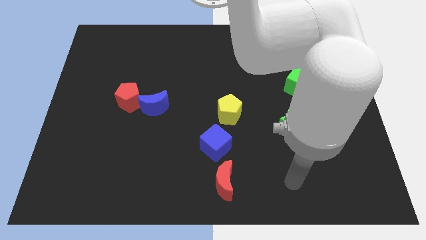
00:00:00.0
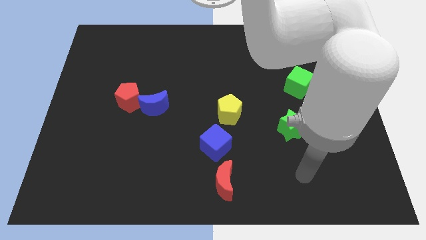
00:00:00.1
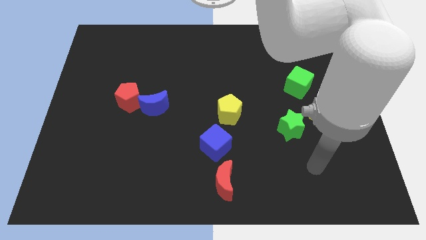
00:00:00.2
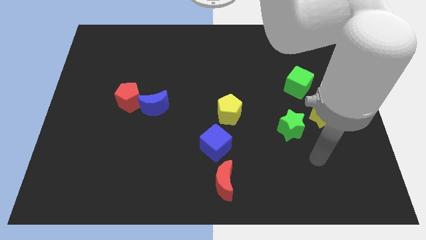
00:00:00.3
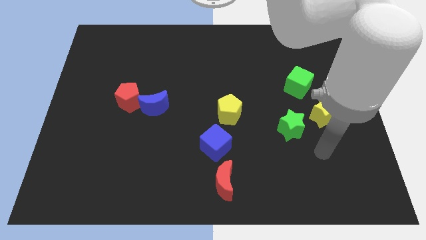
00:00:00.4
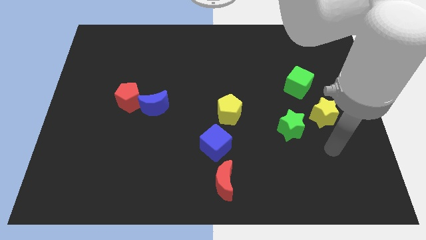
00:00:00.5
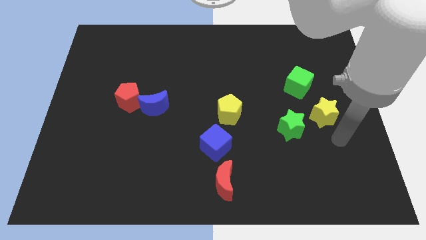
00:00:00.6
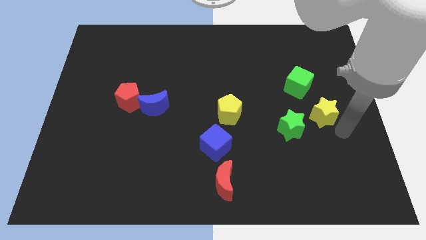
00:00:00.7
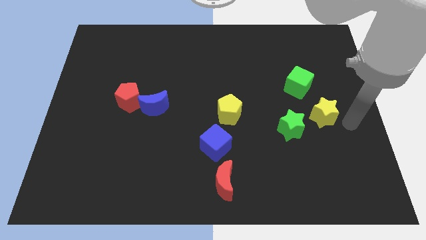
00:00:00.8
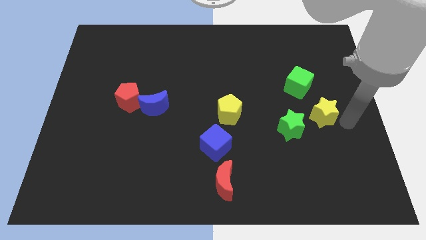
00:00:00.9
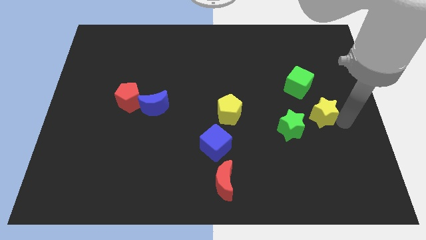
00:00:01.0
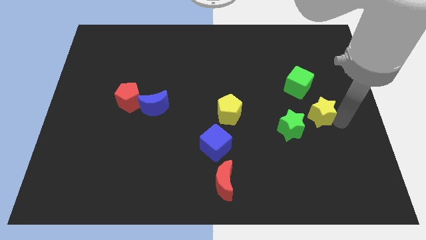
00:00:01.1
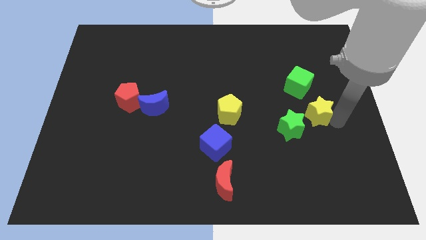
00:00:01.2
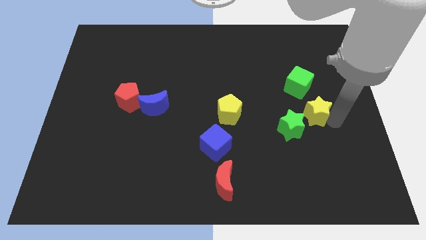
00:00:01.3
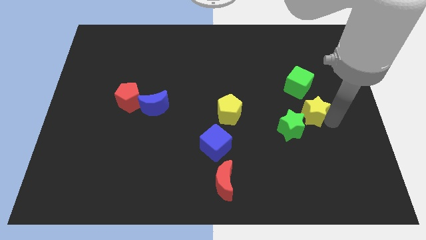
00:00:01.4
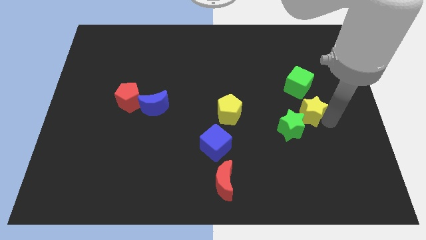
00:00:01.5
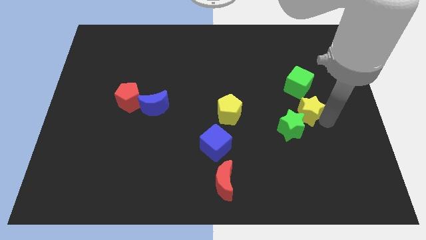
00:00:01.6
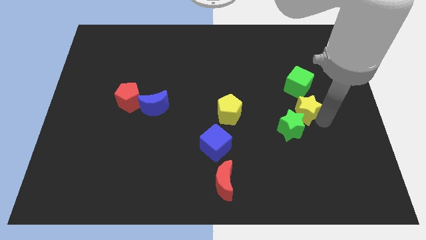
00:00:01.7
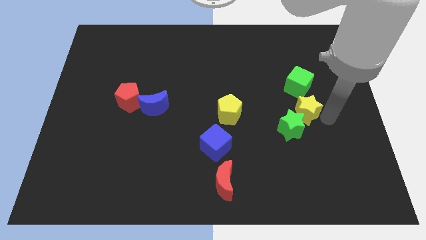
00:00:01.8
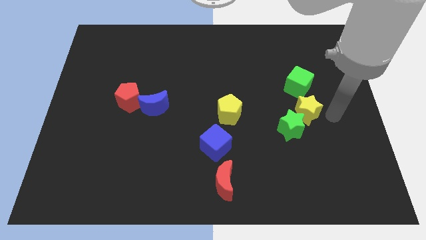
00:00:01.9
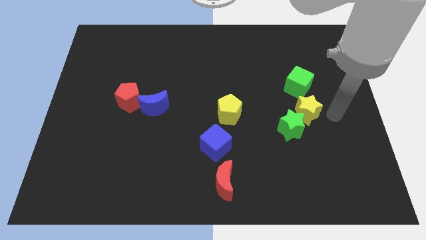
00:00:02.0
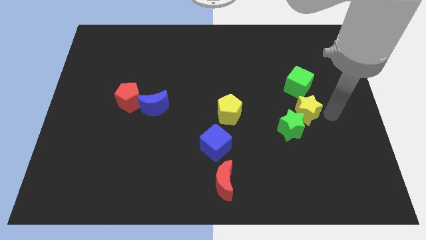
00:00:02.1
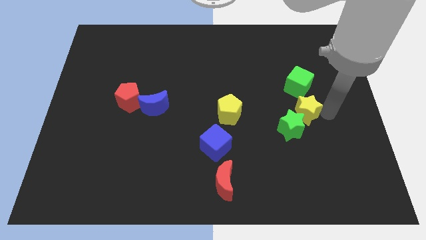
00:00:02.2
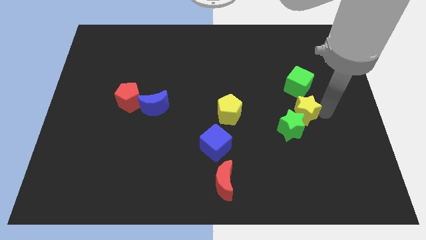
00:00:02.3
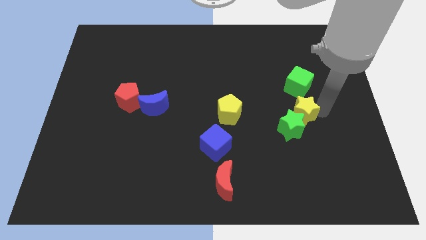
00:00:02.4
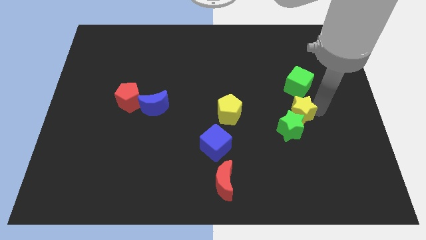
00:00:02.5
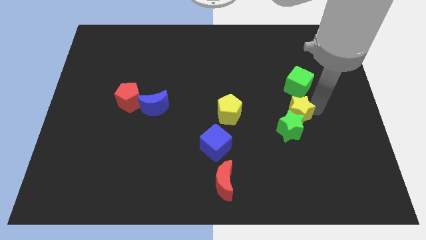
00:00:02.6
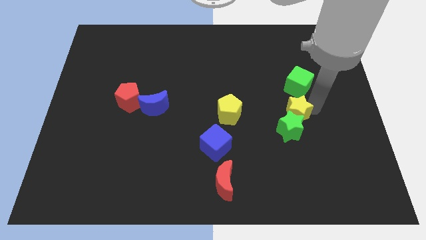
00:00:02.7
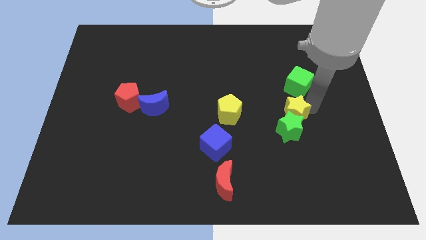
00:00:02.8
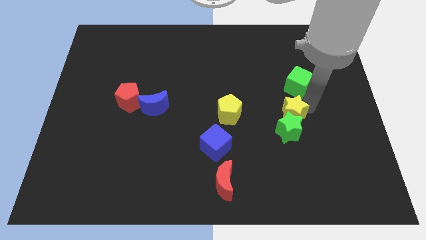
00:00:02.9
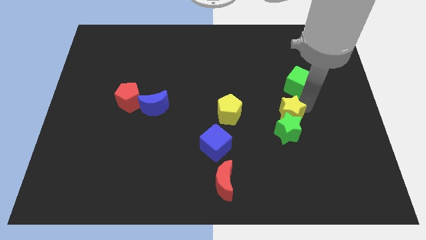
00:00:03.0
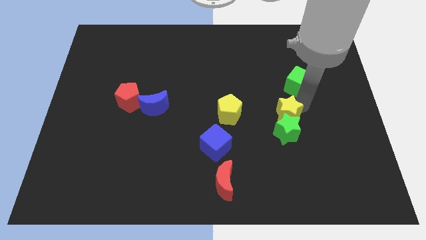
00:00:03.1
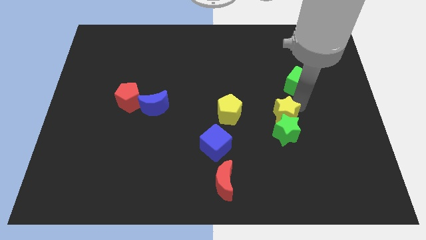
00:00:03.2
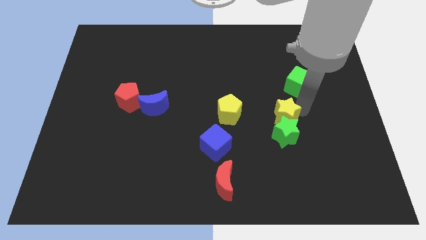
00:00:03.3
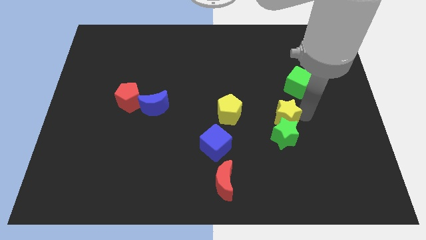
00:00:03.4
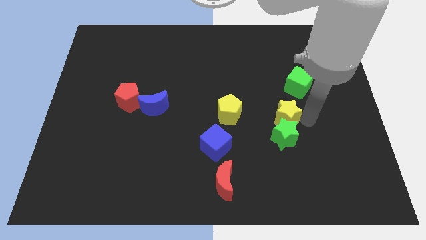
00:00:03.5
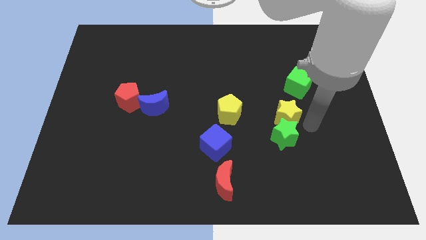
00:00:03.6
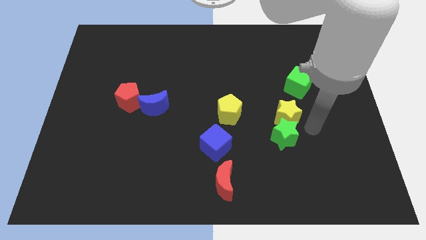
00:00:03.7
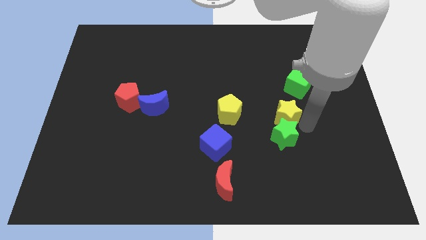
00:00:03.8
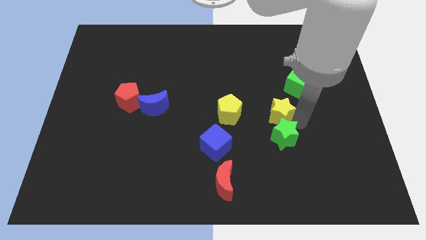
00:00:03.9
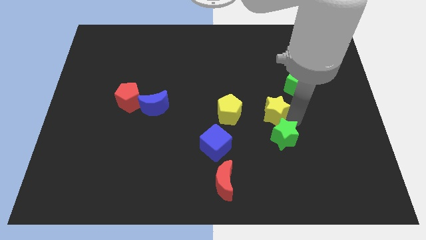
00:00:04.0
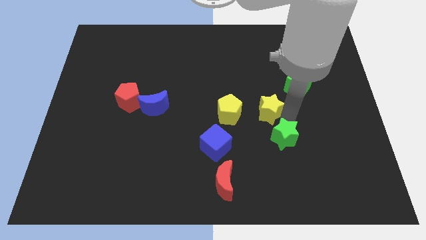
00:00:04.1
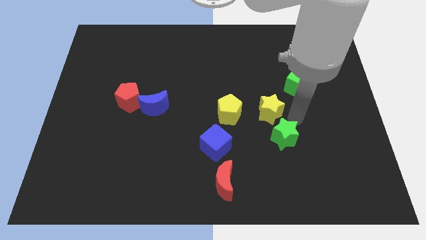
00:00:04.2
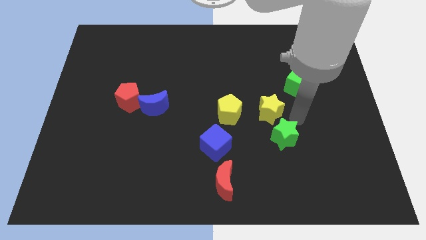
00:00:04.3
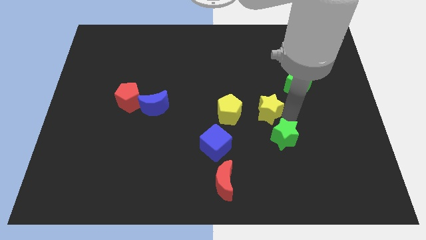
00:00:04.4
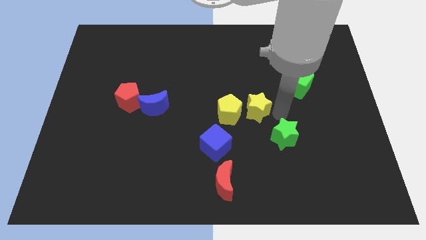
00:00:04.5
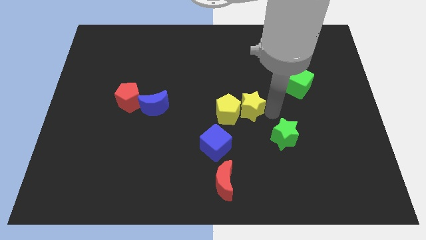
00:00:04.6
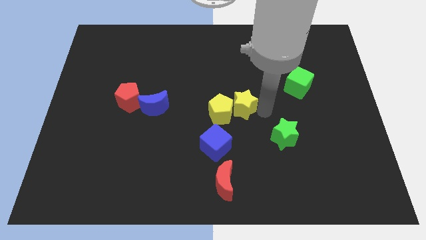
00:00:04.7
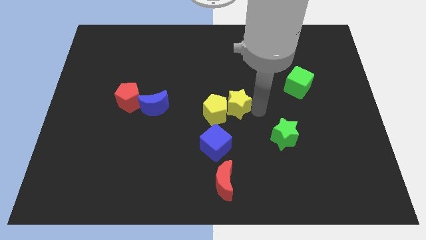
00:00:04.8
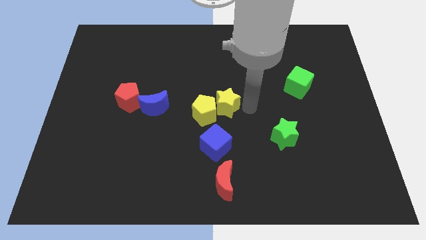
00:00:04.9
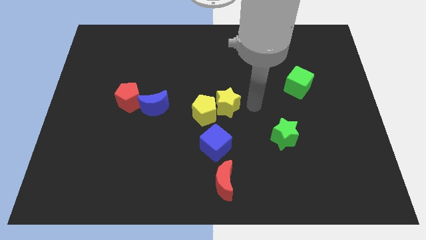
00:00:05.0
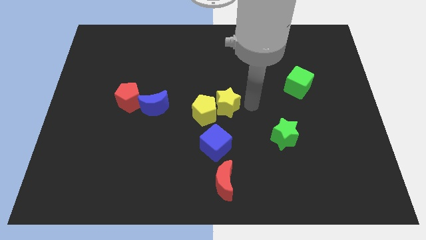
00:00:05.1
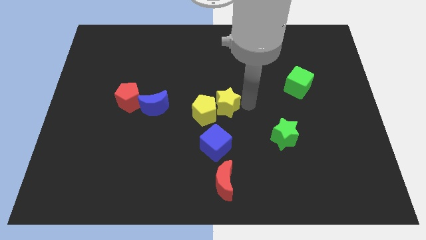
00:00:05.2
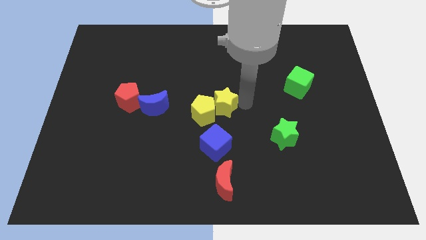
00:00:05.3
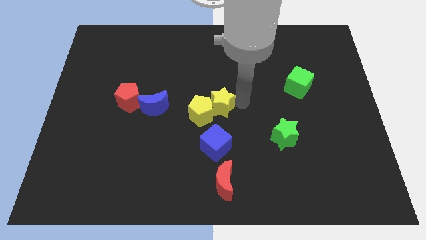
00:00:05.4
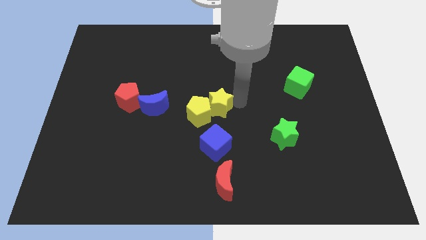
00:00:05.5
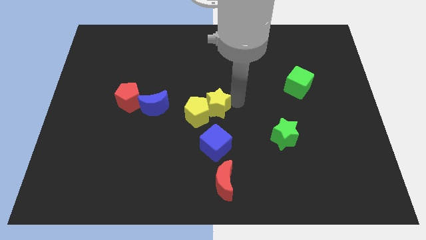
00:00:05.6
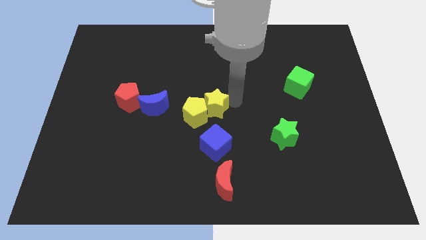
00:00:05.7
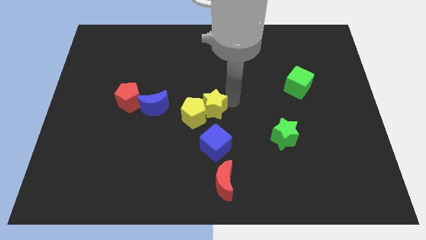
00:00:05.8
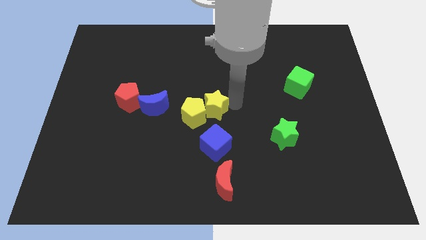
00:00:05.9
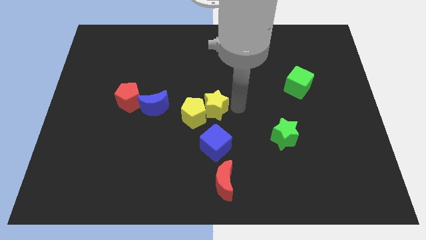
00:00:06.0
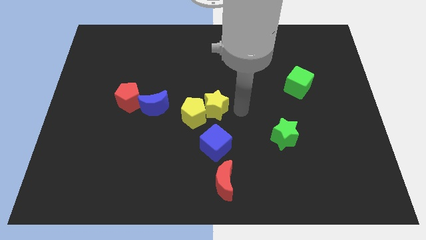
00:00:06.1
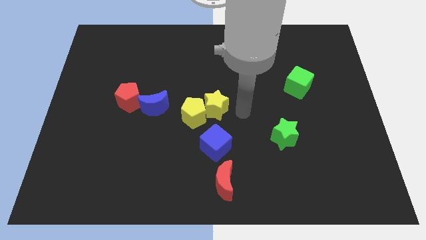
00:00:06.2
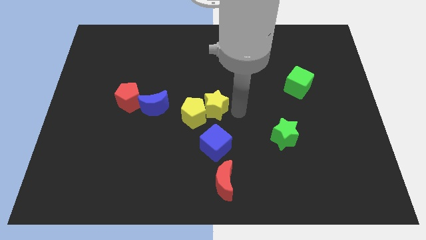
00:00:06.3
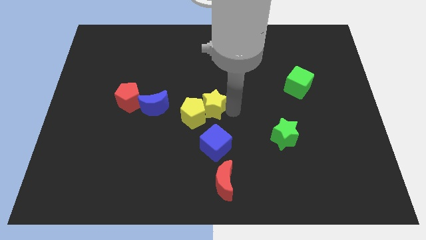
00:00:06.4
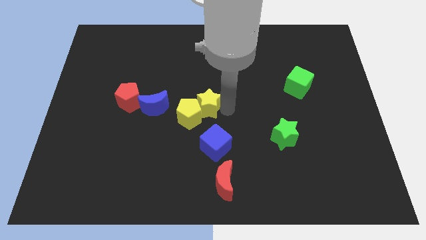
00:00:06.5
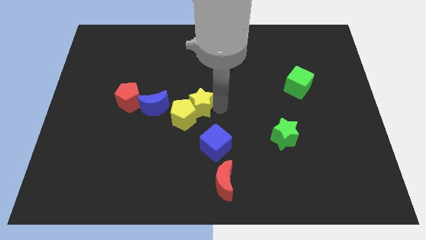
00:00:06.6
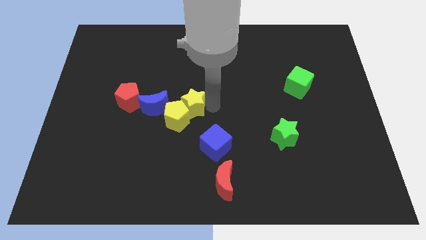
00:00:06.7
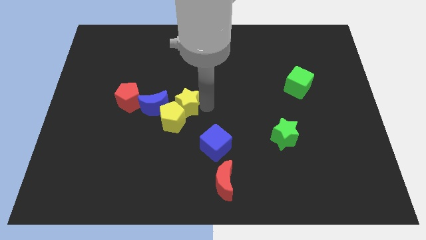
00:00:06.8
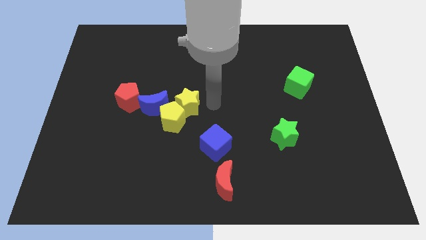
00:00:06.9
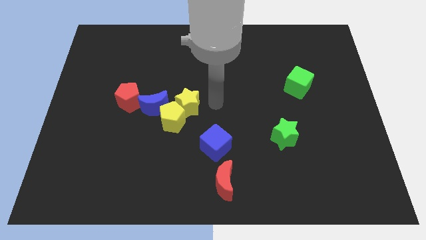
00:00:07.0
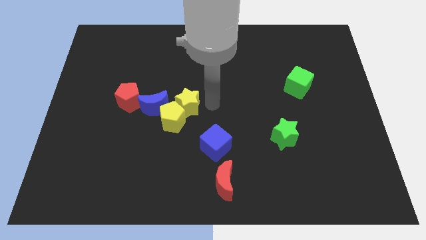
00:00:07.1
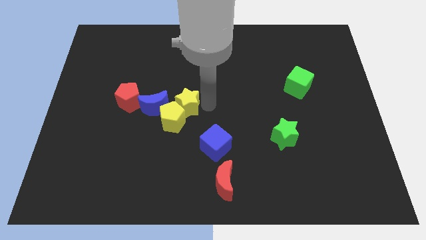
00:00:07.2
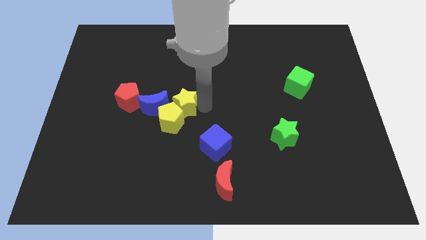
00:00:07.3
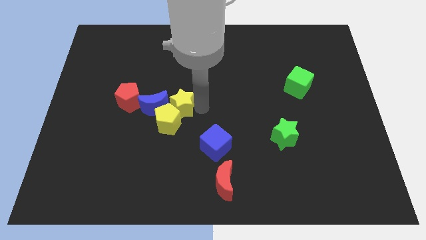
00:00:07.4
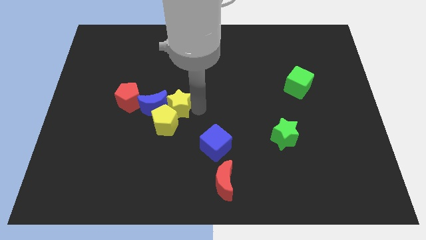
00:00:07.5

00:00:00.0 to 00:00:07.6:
slide the yellow star to the blue moon
